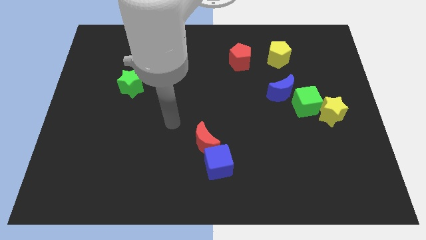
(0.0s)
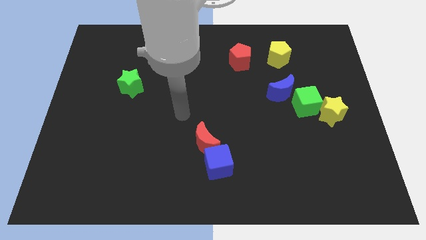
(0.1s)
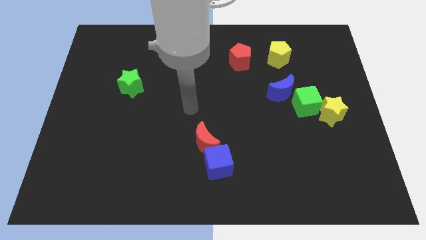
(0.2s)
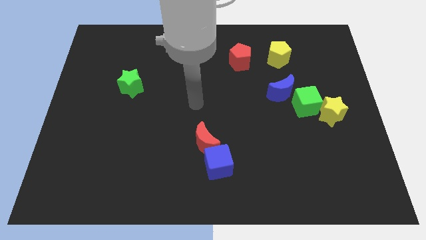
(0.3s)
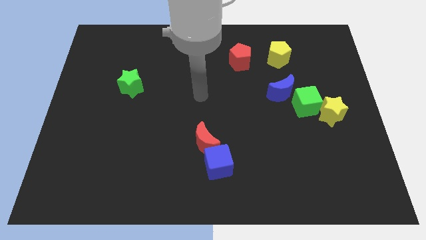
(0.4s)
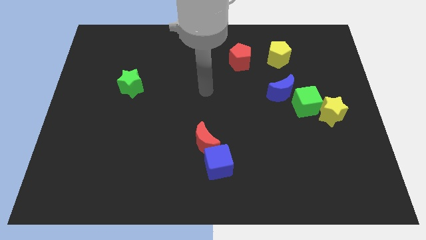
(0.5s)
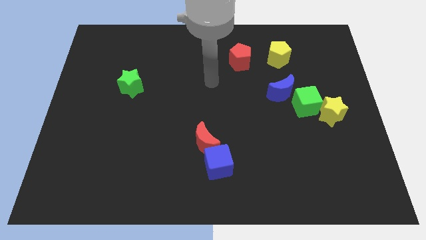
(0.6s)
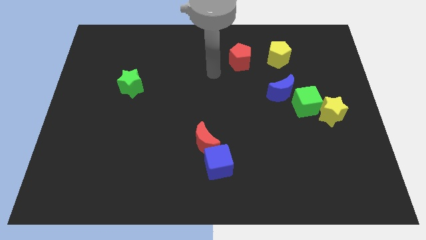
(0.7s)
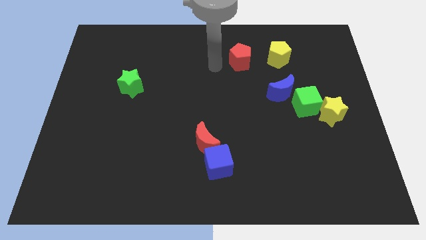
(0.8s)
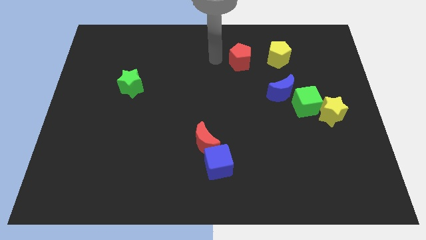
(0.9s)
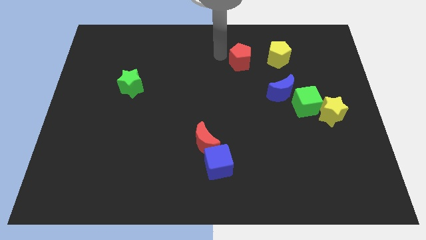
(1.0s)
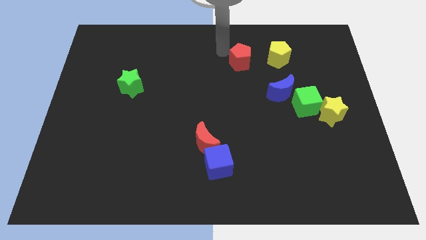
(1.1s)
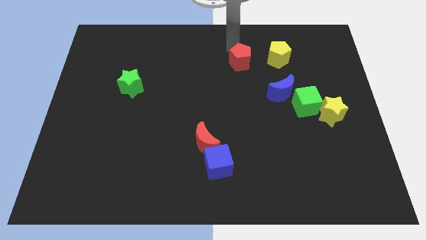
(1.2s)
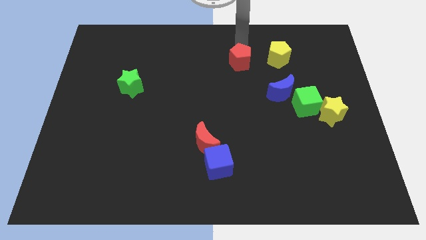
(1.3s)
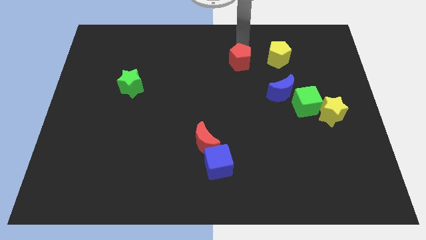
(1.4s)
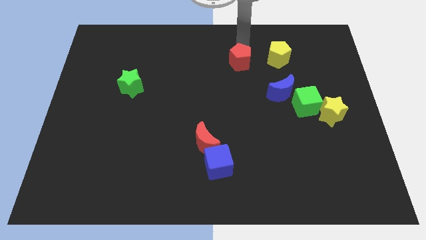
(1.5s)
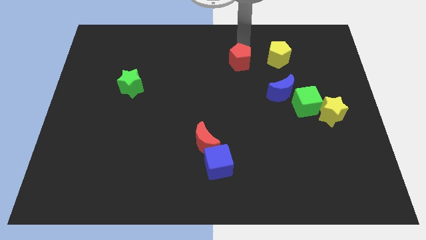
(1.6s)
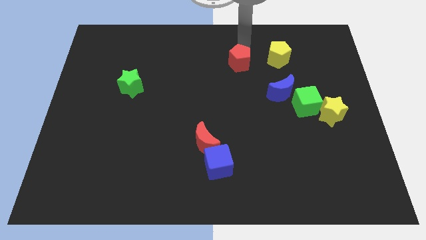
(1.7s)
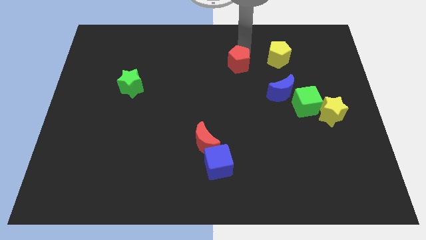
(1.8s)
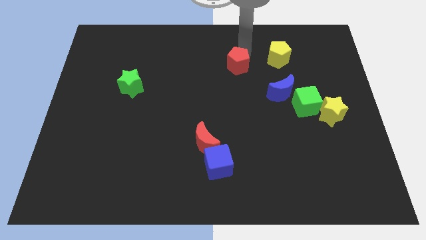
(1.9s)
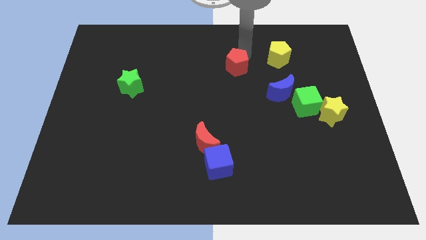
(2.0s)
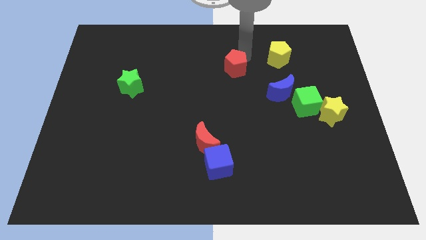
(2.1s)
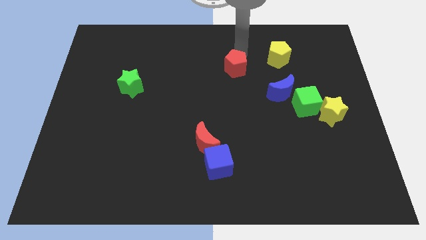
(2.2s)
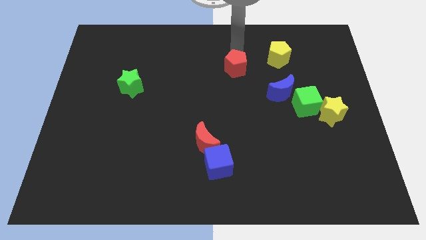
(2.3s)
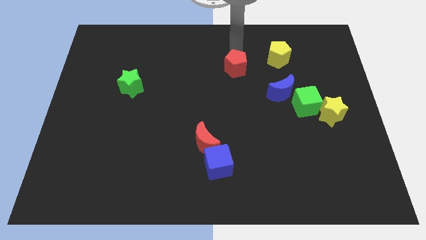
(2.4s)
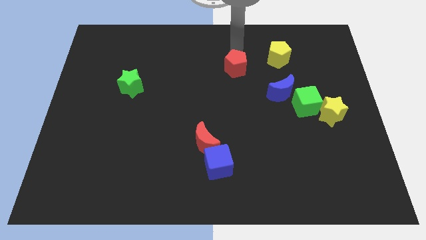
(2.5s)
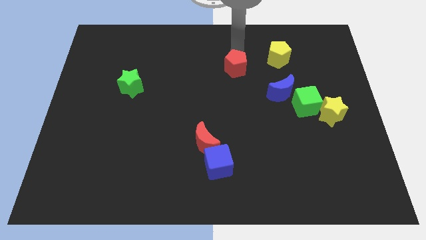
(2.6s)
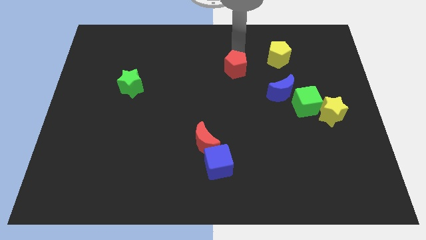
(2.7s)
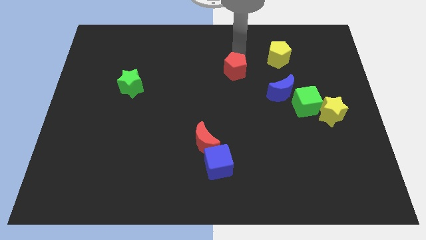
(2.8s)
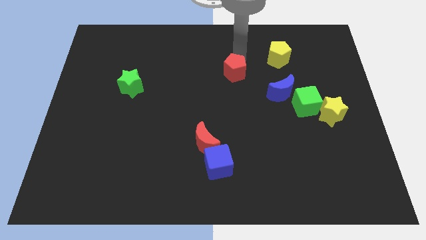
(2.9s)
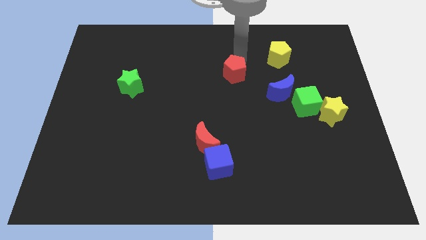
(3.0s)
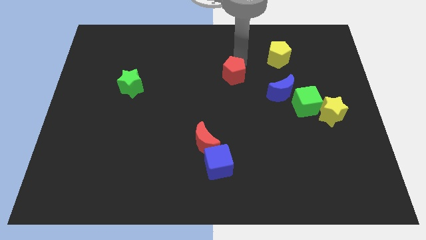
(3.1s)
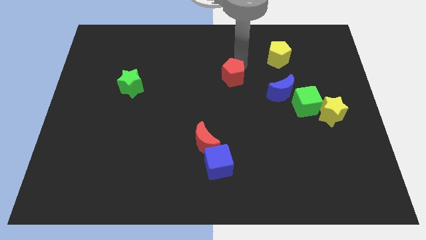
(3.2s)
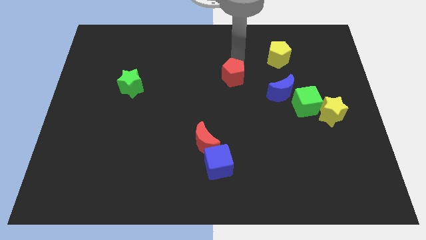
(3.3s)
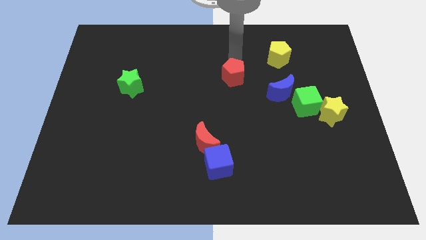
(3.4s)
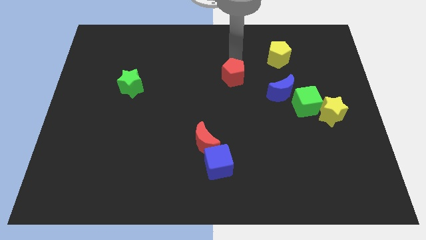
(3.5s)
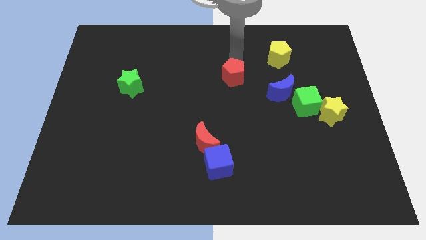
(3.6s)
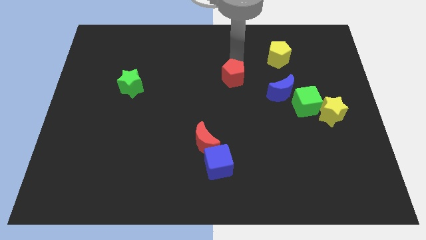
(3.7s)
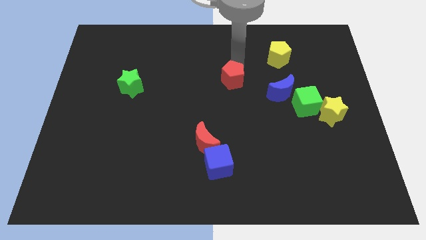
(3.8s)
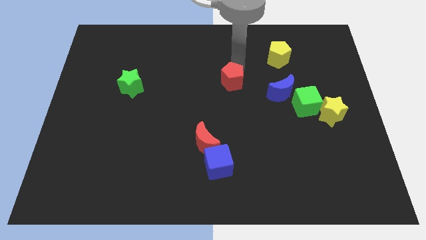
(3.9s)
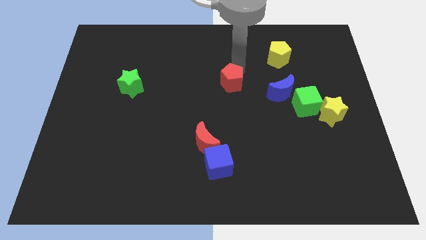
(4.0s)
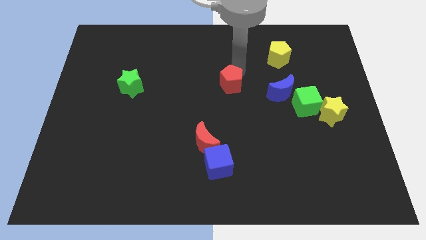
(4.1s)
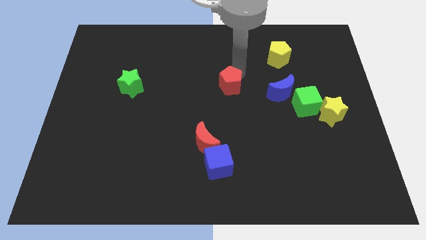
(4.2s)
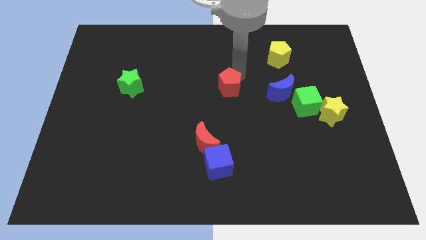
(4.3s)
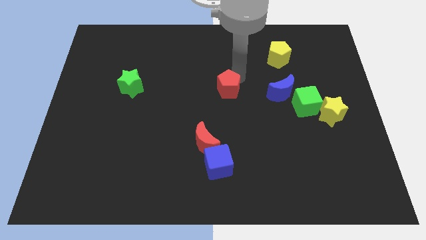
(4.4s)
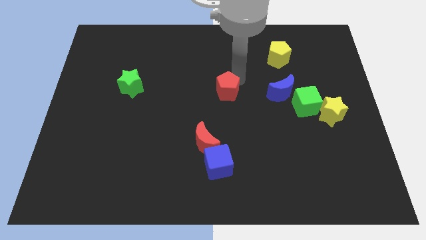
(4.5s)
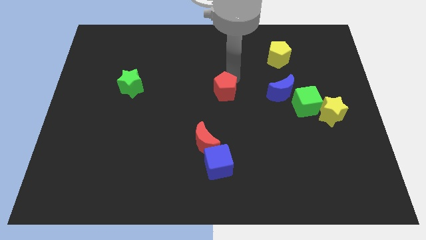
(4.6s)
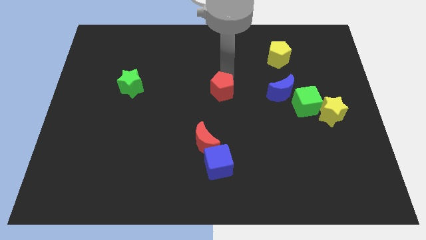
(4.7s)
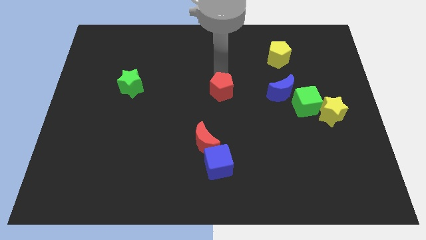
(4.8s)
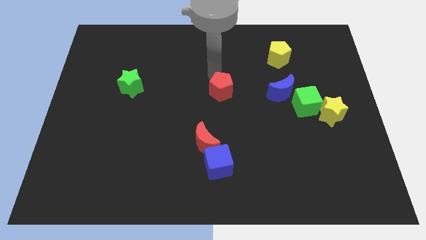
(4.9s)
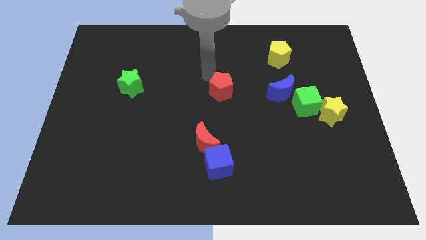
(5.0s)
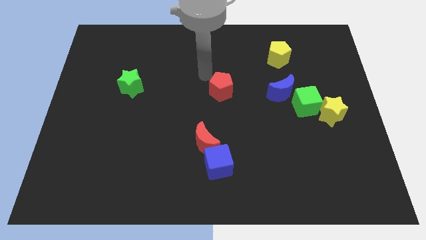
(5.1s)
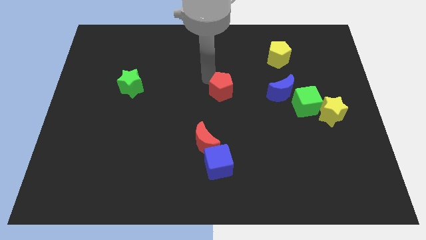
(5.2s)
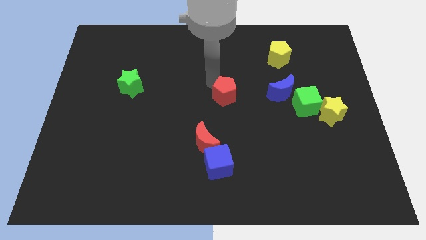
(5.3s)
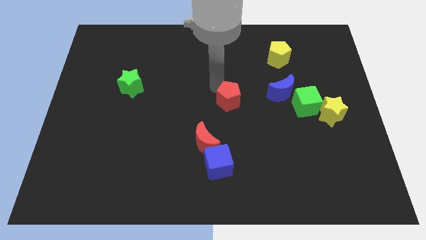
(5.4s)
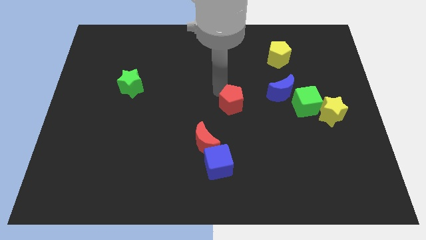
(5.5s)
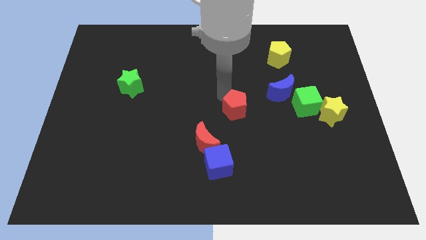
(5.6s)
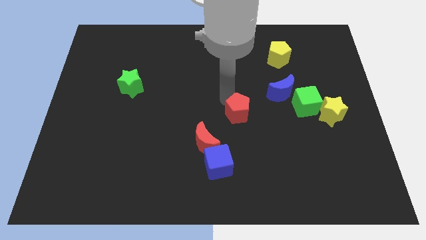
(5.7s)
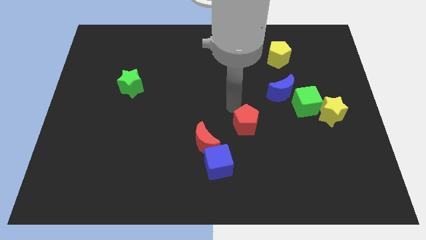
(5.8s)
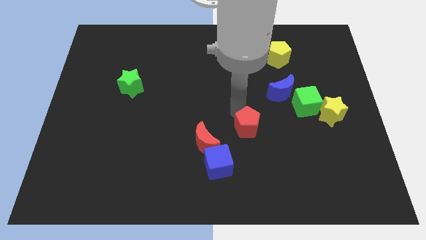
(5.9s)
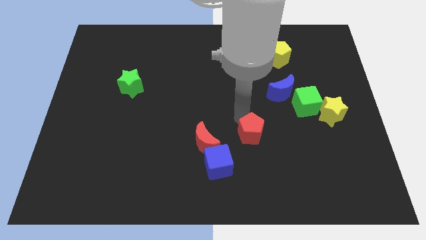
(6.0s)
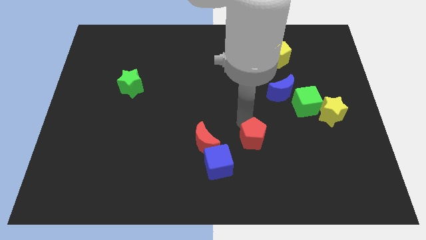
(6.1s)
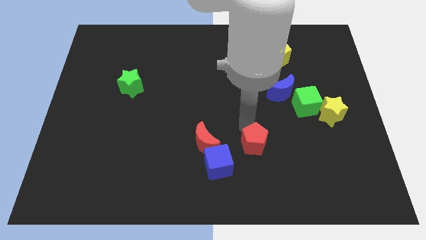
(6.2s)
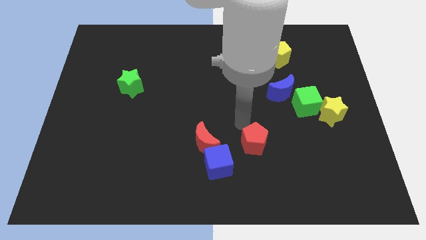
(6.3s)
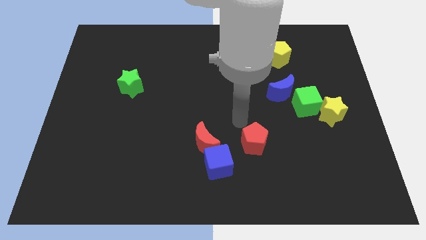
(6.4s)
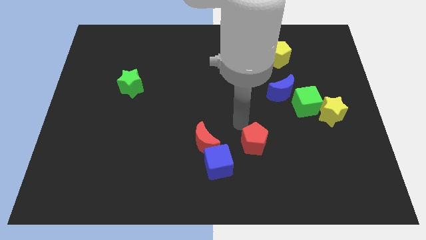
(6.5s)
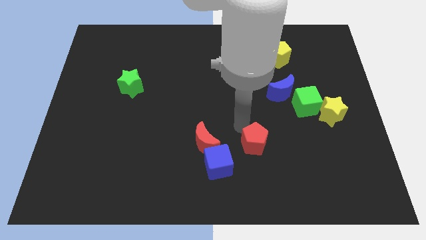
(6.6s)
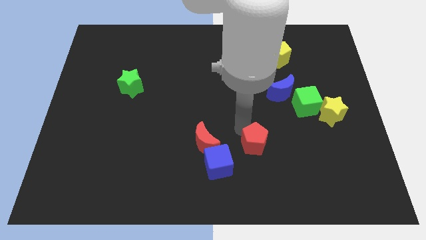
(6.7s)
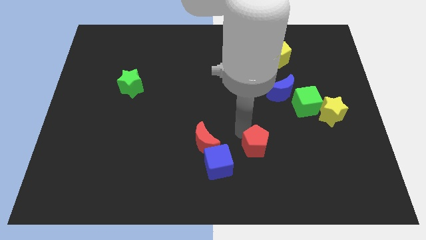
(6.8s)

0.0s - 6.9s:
push the red pentagon to the right side of the blue cube
